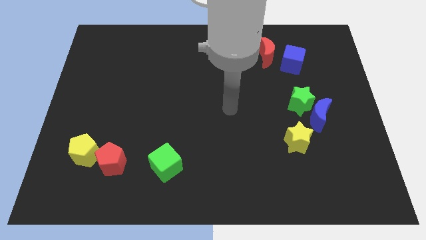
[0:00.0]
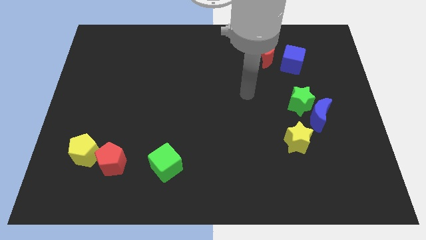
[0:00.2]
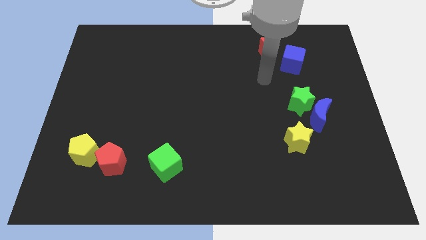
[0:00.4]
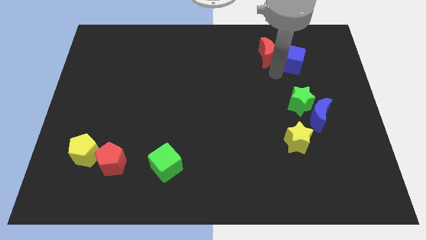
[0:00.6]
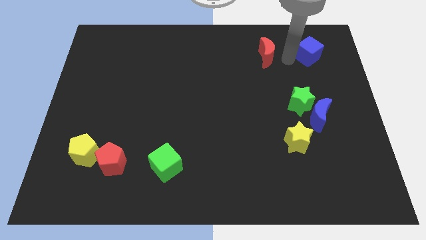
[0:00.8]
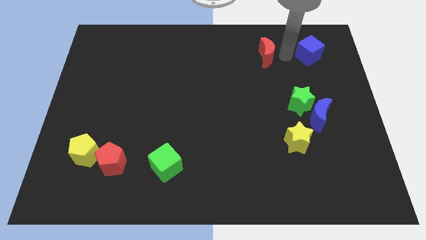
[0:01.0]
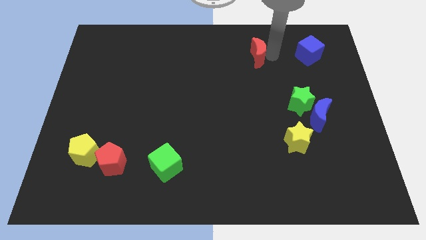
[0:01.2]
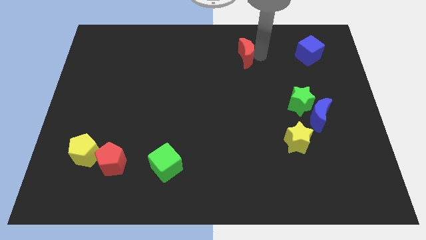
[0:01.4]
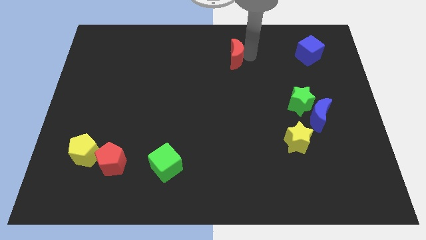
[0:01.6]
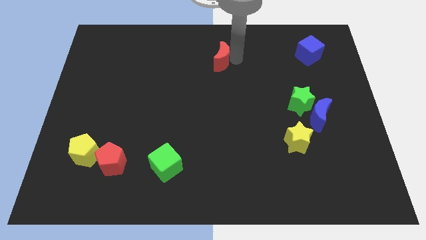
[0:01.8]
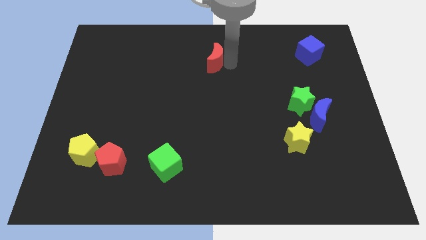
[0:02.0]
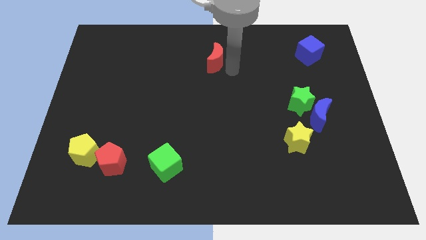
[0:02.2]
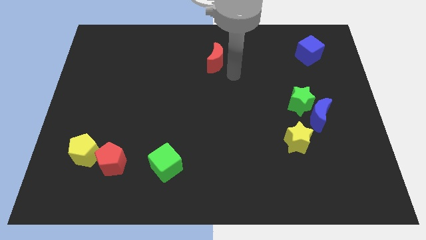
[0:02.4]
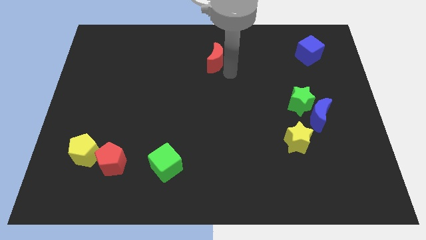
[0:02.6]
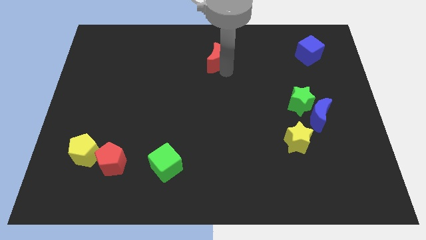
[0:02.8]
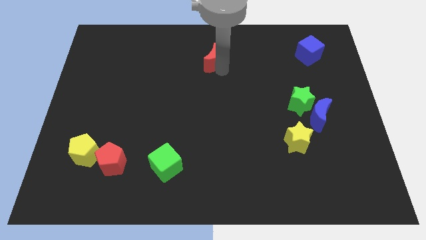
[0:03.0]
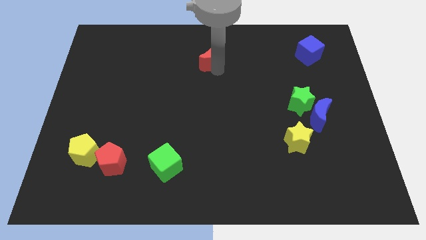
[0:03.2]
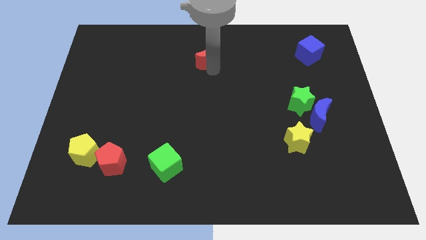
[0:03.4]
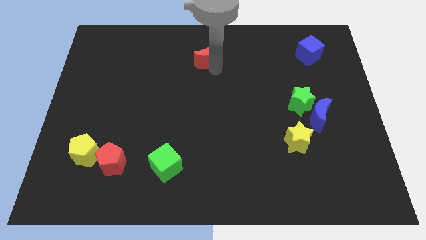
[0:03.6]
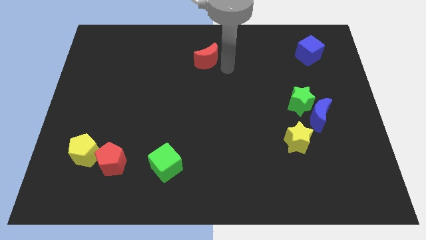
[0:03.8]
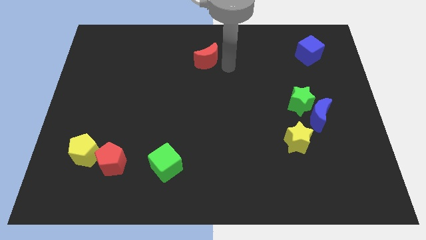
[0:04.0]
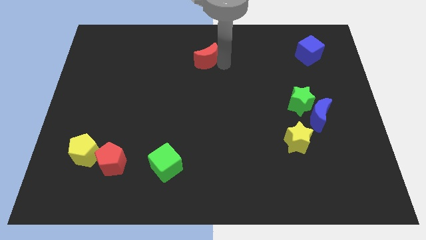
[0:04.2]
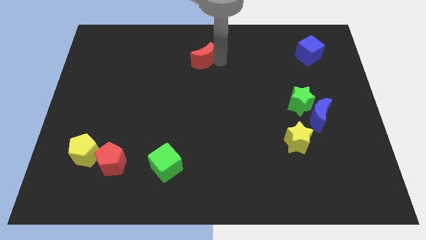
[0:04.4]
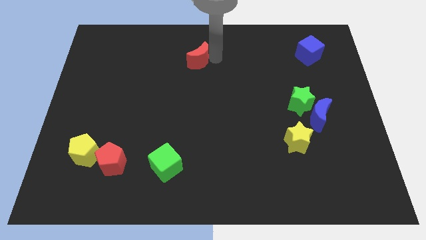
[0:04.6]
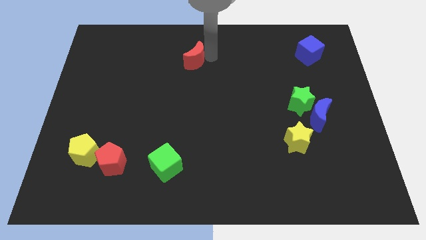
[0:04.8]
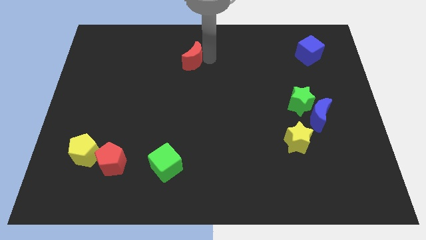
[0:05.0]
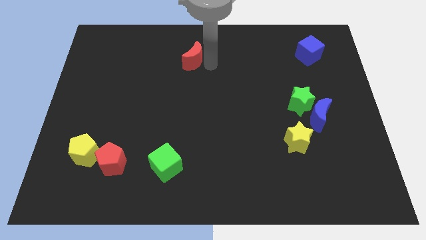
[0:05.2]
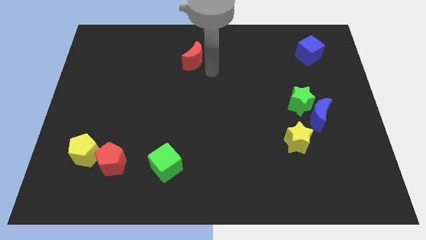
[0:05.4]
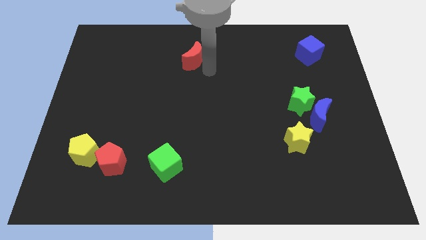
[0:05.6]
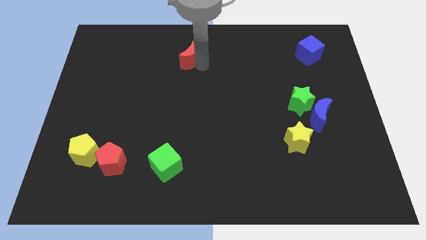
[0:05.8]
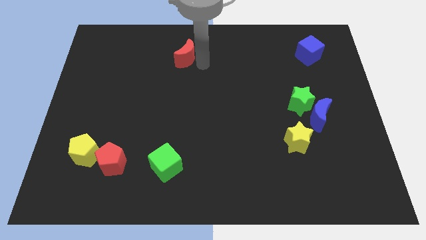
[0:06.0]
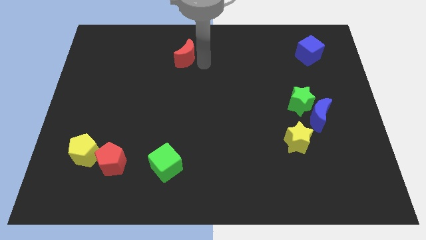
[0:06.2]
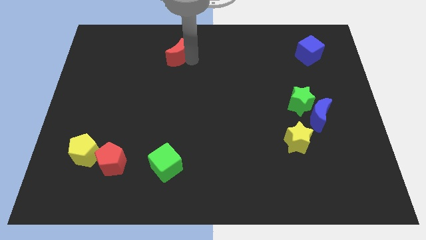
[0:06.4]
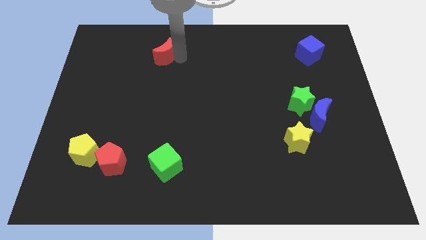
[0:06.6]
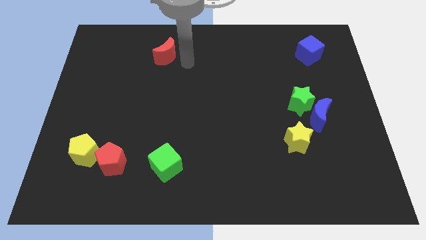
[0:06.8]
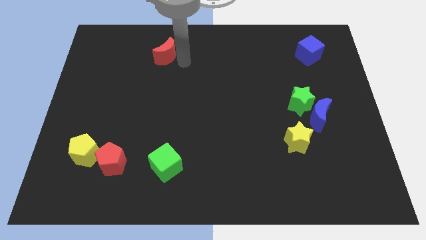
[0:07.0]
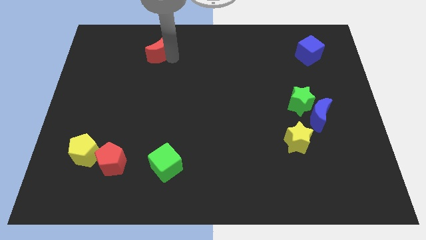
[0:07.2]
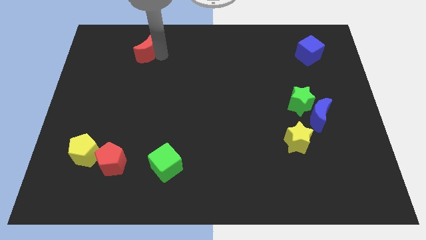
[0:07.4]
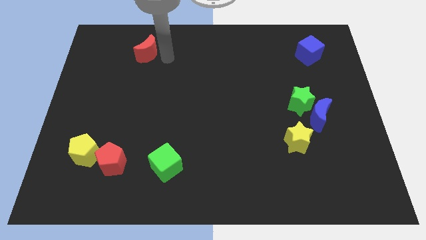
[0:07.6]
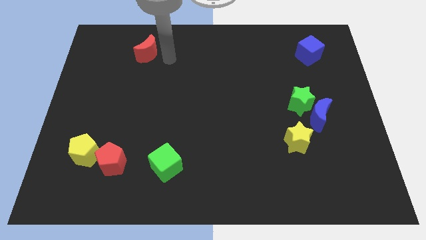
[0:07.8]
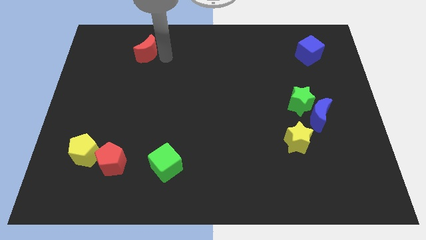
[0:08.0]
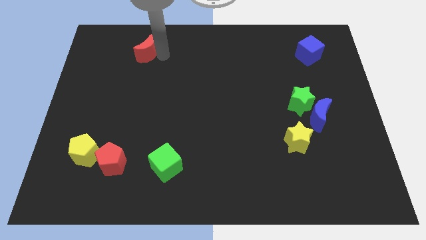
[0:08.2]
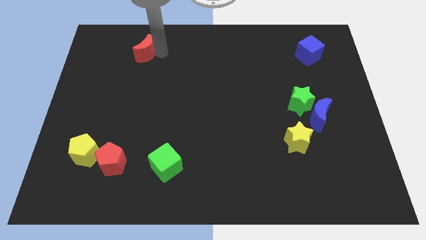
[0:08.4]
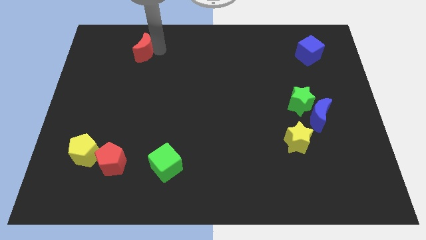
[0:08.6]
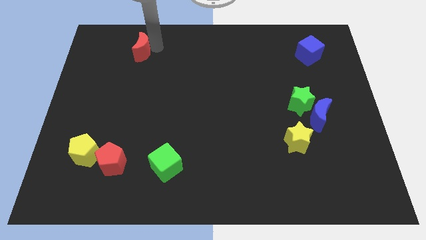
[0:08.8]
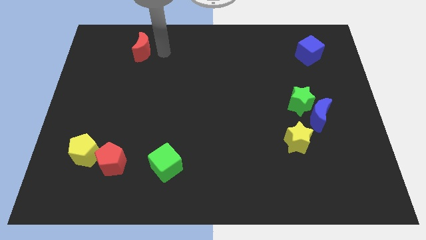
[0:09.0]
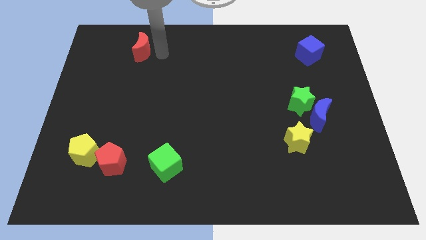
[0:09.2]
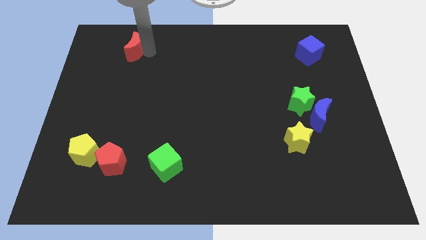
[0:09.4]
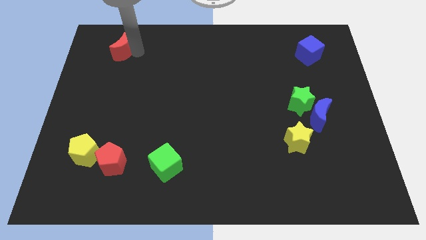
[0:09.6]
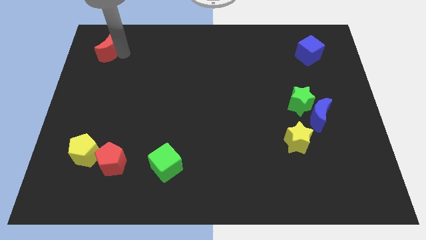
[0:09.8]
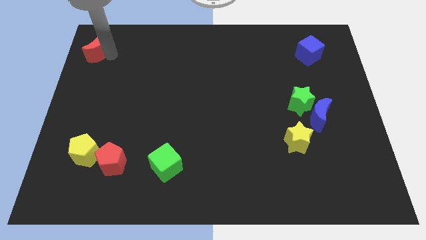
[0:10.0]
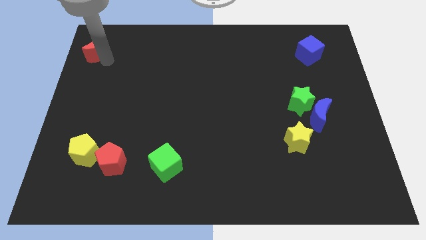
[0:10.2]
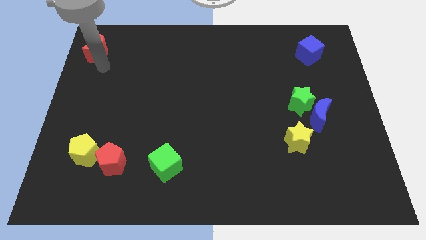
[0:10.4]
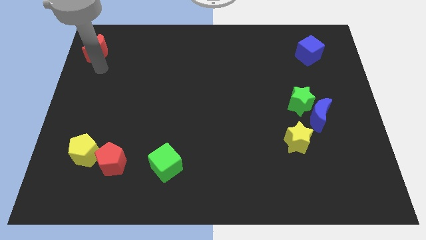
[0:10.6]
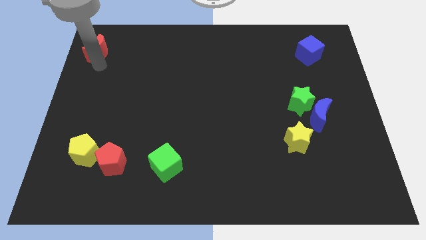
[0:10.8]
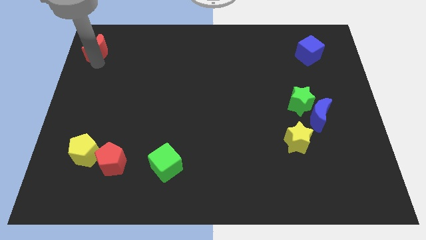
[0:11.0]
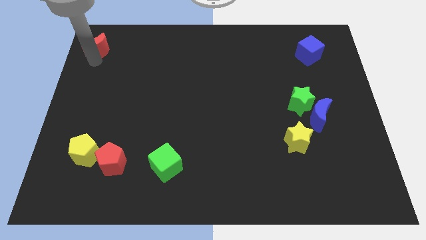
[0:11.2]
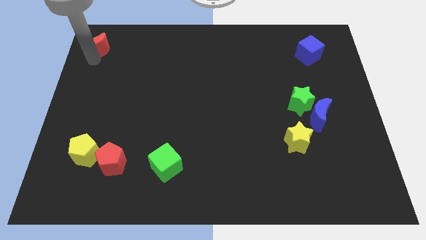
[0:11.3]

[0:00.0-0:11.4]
put the red moon to the top left corner
